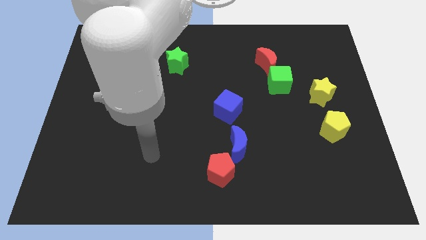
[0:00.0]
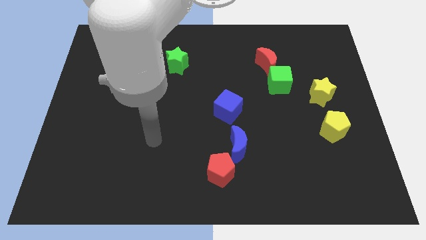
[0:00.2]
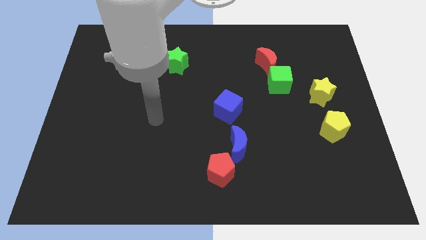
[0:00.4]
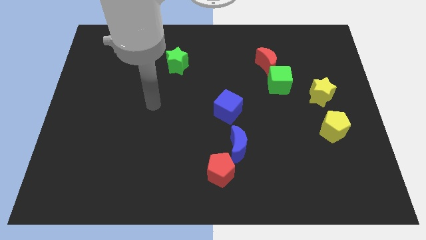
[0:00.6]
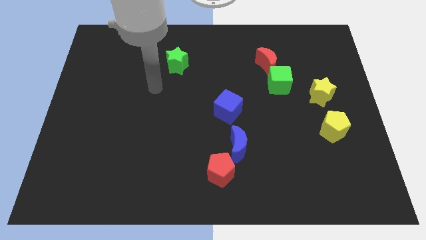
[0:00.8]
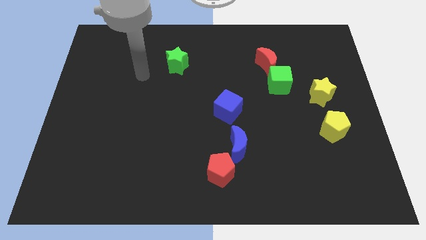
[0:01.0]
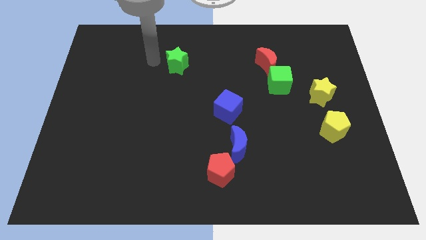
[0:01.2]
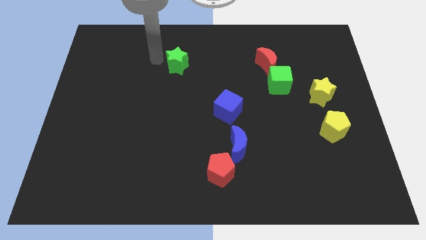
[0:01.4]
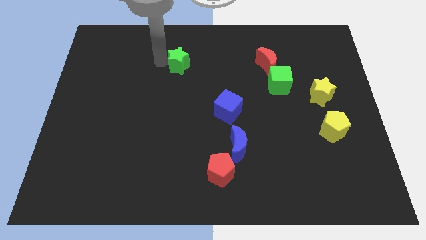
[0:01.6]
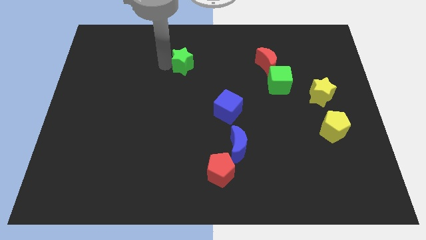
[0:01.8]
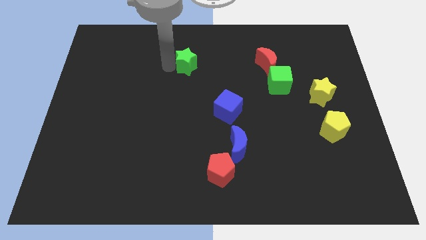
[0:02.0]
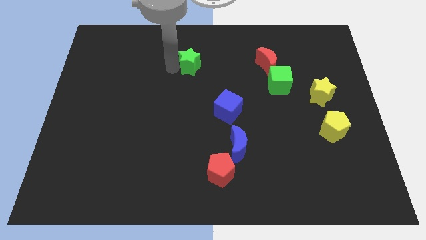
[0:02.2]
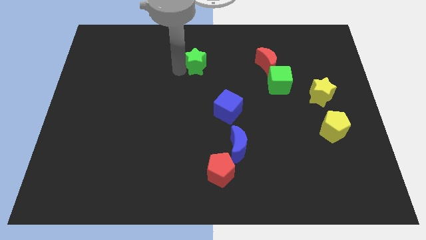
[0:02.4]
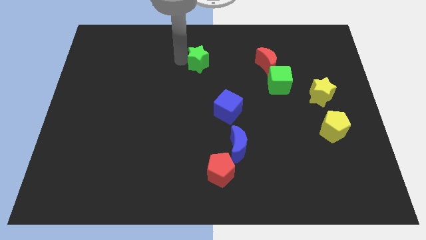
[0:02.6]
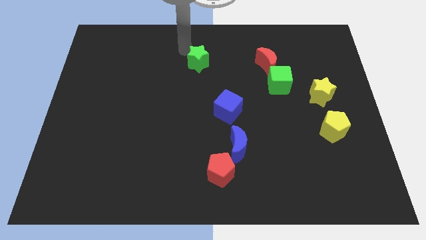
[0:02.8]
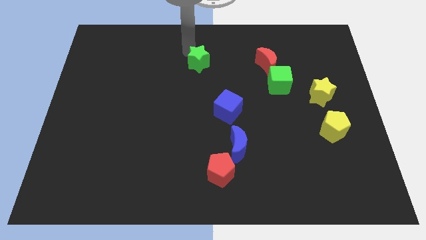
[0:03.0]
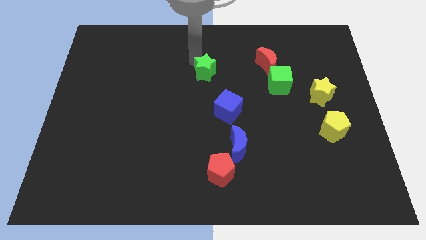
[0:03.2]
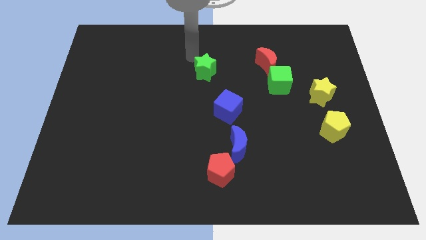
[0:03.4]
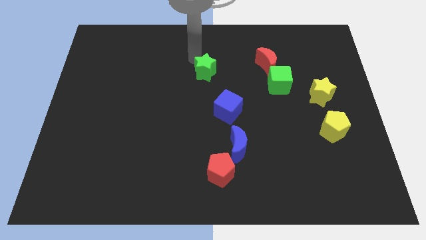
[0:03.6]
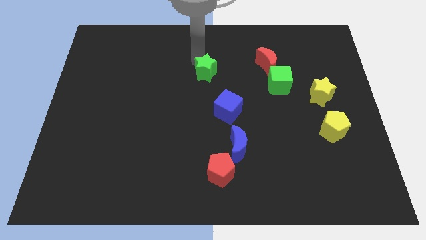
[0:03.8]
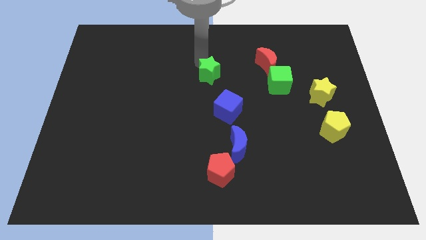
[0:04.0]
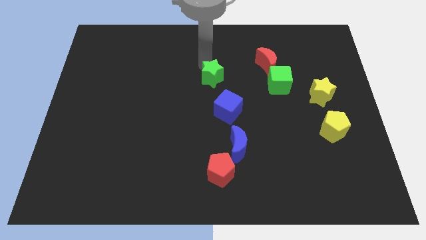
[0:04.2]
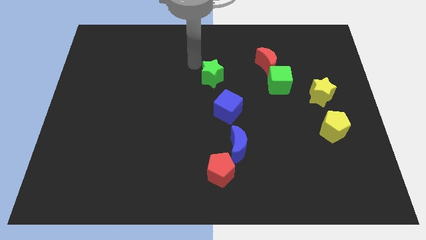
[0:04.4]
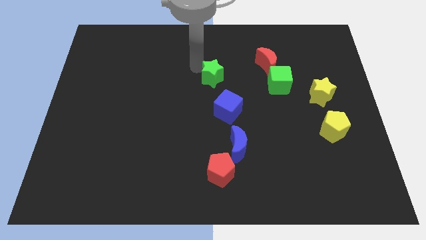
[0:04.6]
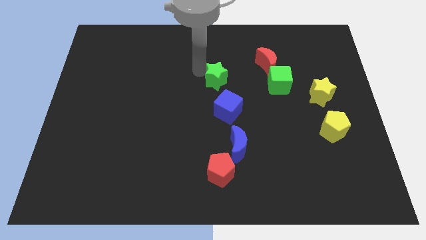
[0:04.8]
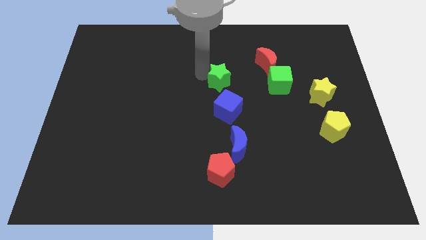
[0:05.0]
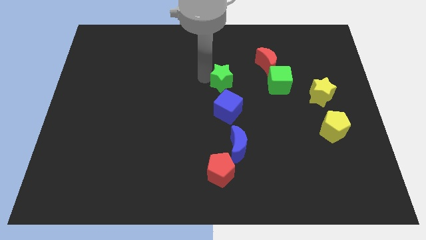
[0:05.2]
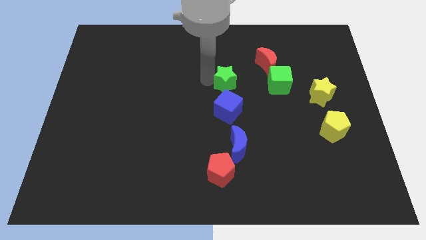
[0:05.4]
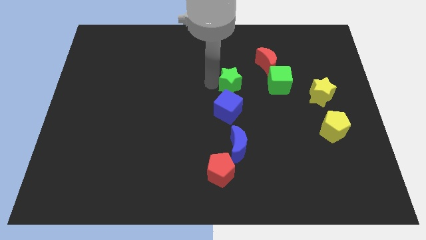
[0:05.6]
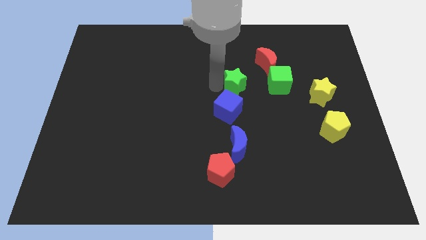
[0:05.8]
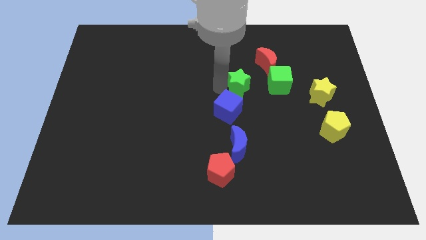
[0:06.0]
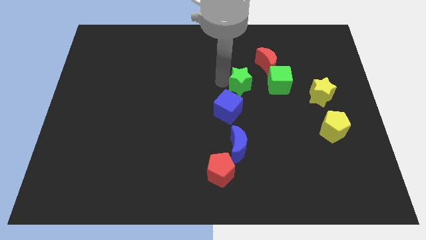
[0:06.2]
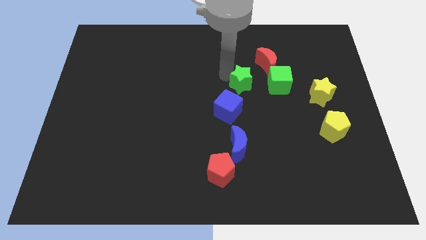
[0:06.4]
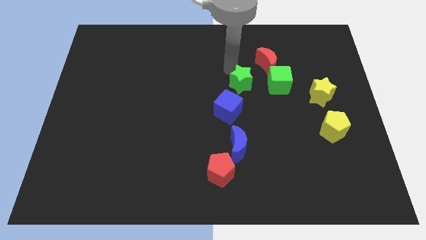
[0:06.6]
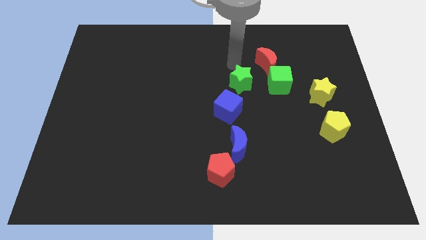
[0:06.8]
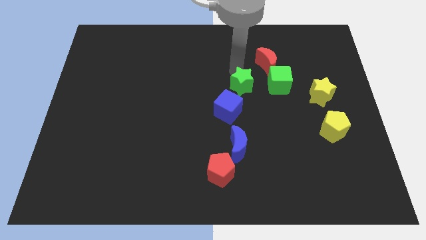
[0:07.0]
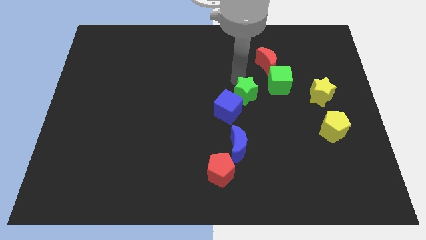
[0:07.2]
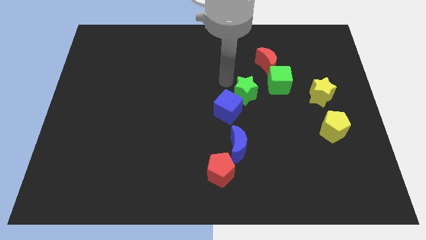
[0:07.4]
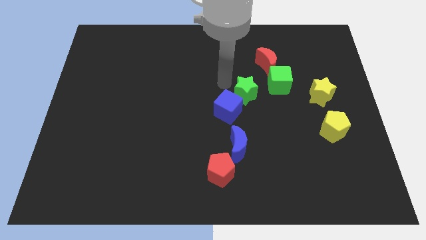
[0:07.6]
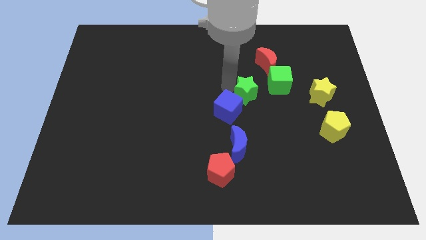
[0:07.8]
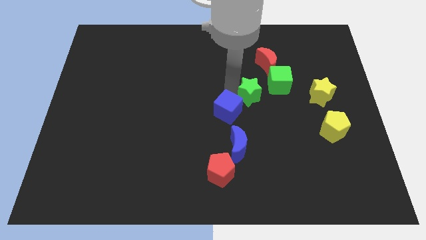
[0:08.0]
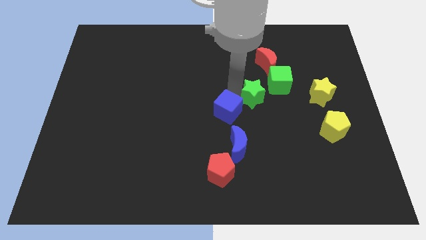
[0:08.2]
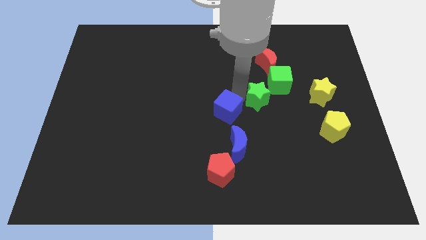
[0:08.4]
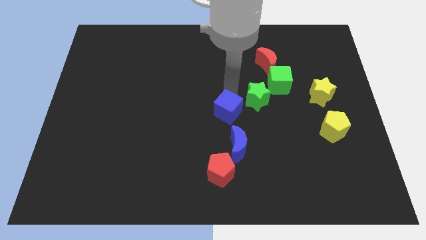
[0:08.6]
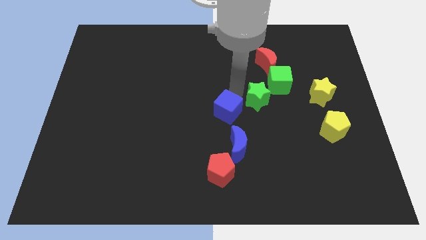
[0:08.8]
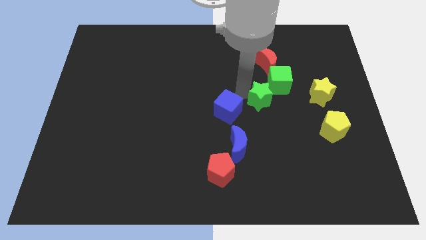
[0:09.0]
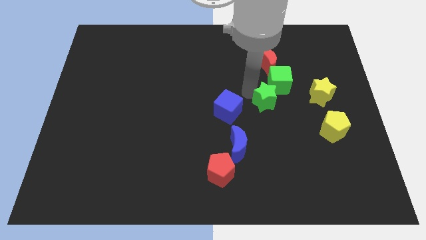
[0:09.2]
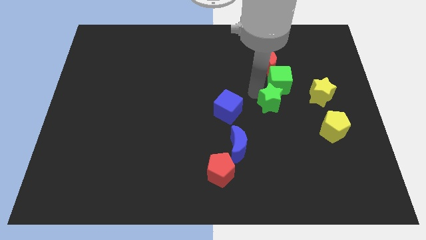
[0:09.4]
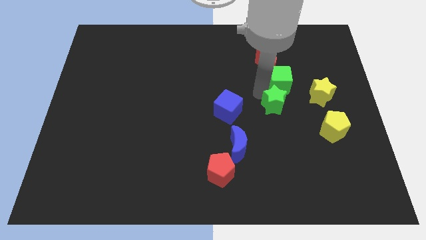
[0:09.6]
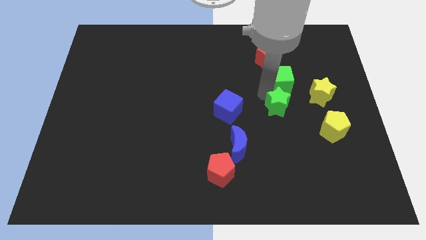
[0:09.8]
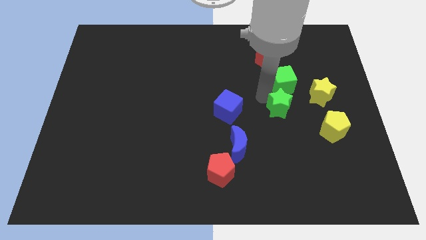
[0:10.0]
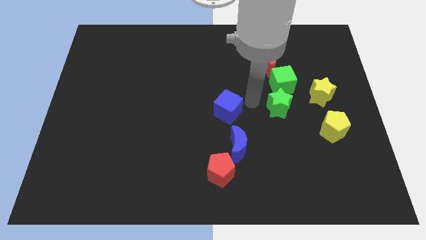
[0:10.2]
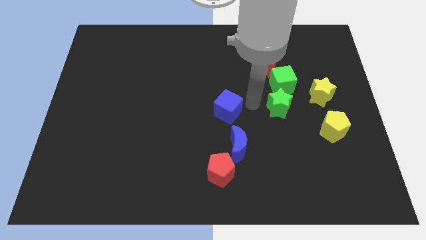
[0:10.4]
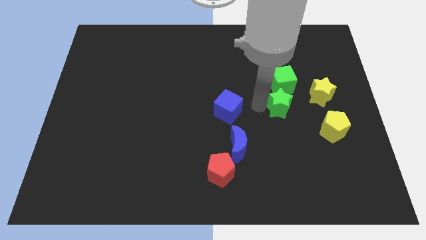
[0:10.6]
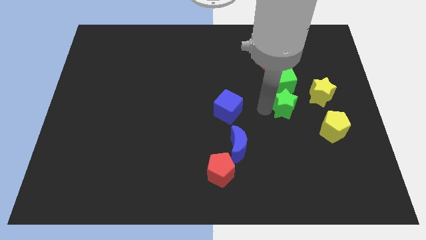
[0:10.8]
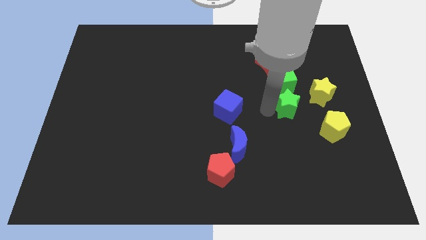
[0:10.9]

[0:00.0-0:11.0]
slide the green star diagonally up and to the left of the yellow pentagon
